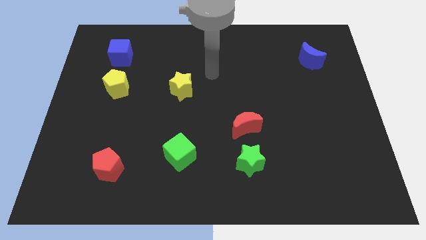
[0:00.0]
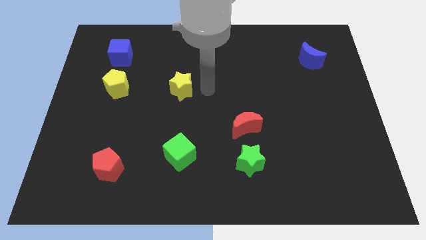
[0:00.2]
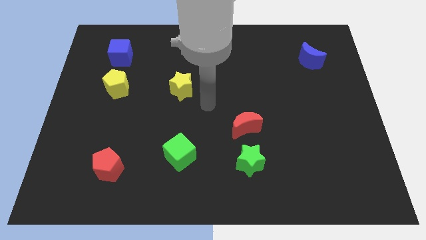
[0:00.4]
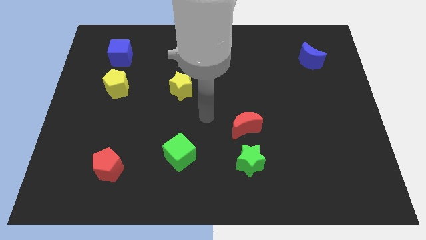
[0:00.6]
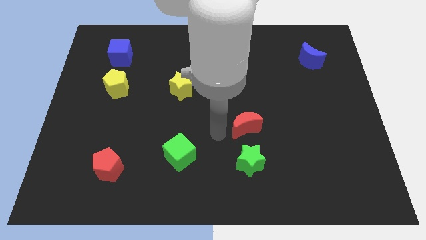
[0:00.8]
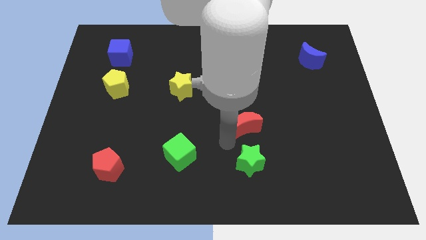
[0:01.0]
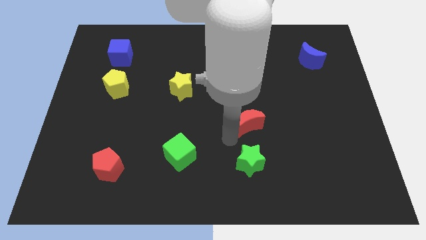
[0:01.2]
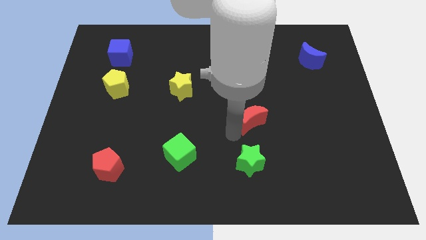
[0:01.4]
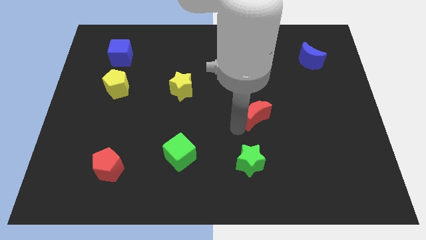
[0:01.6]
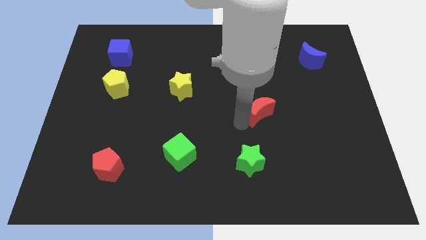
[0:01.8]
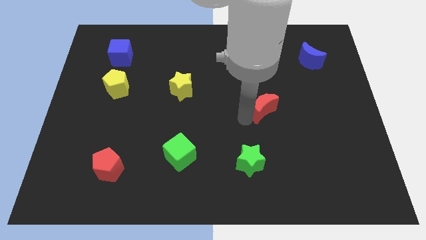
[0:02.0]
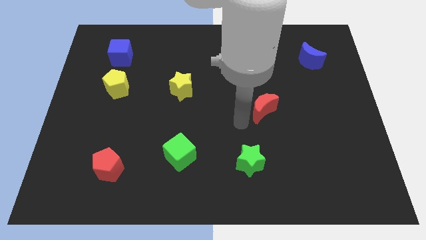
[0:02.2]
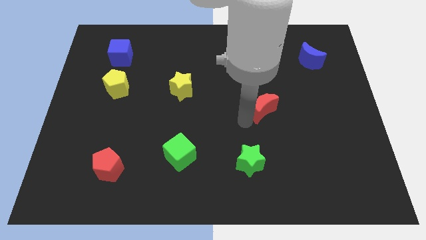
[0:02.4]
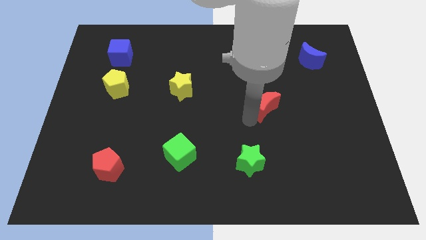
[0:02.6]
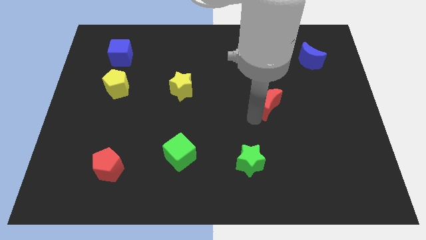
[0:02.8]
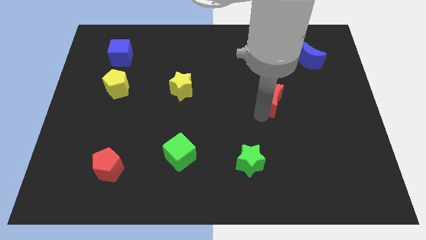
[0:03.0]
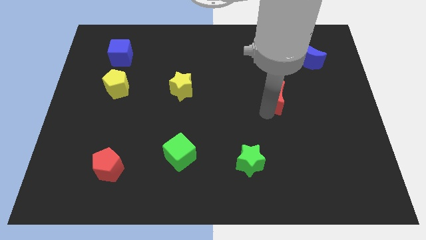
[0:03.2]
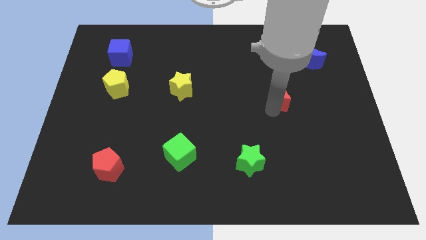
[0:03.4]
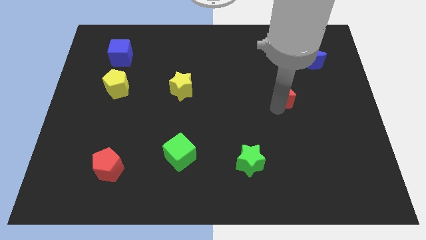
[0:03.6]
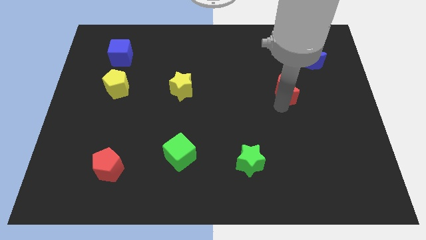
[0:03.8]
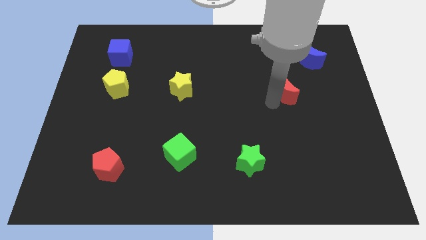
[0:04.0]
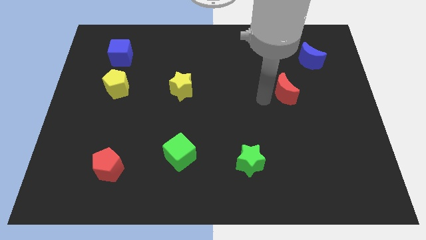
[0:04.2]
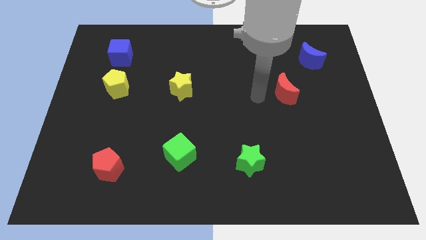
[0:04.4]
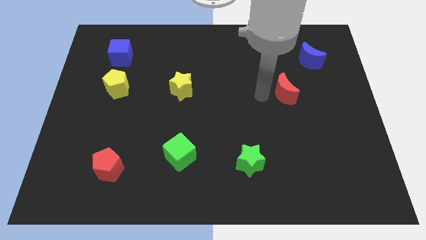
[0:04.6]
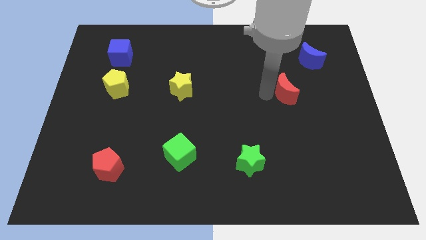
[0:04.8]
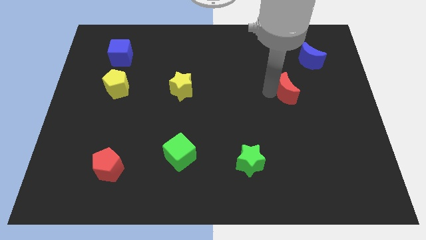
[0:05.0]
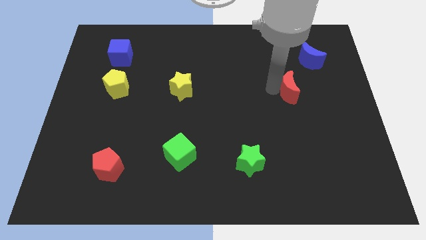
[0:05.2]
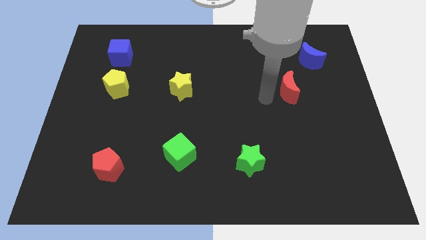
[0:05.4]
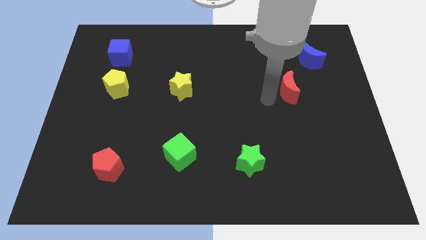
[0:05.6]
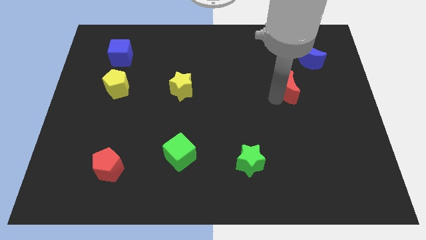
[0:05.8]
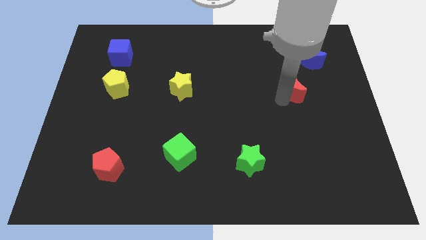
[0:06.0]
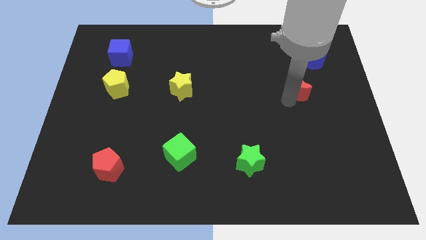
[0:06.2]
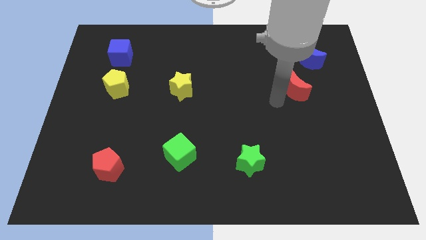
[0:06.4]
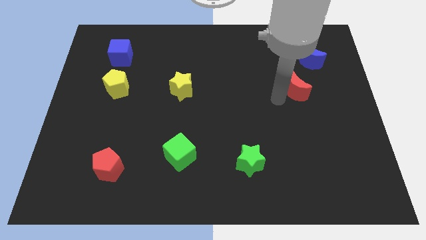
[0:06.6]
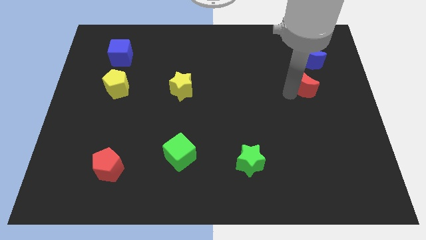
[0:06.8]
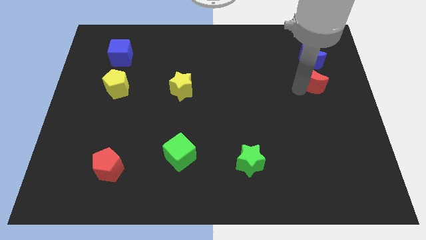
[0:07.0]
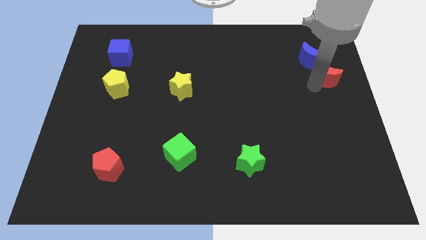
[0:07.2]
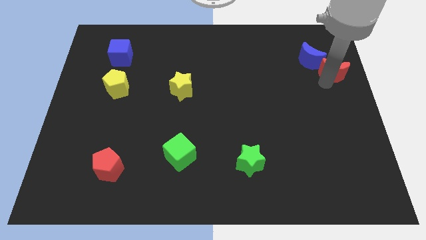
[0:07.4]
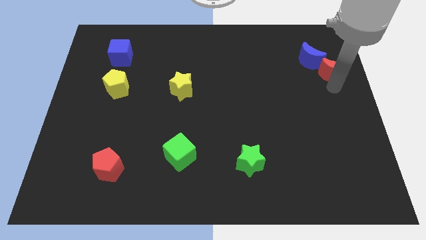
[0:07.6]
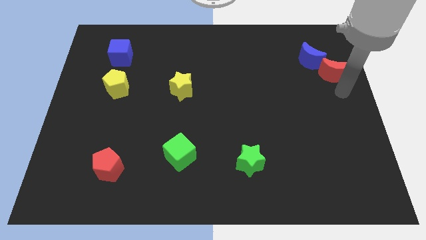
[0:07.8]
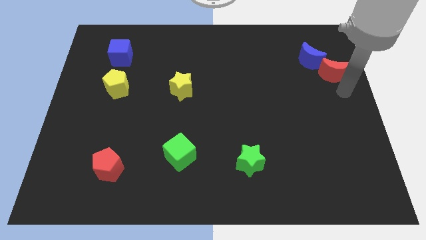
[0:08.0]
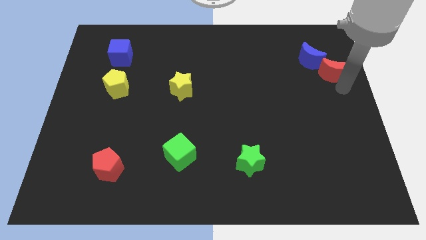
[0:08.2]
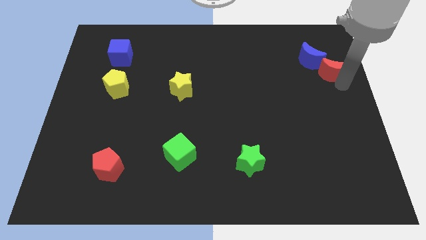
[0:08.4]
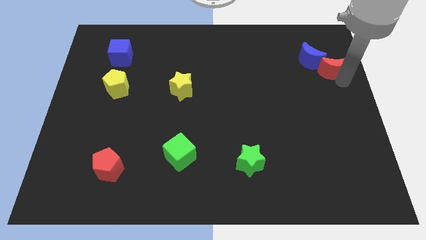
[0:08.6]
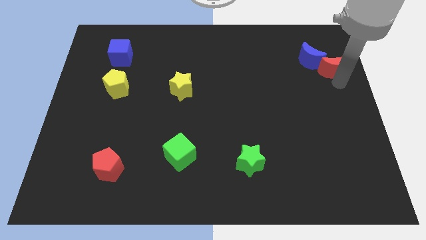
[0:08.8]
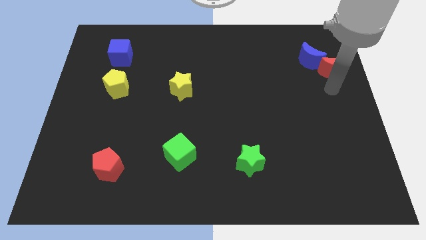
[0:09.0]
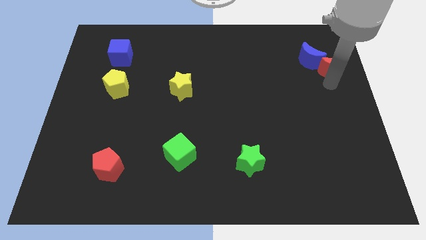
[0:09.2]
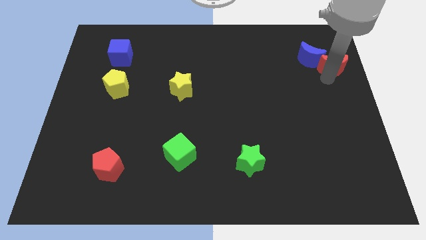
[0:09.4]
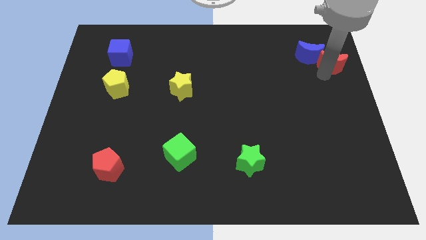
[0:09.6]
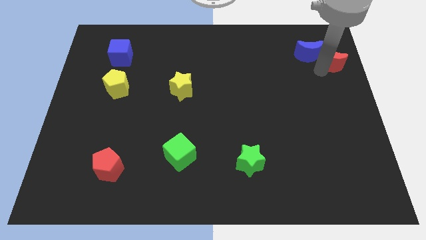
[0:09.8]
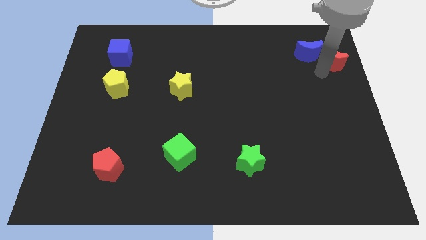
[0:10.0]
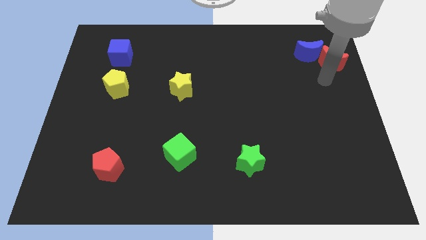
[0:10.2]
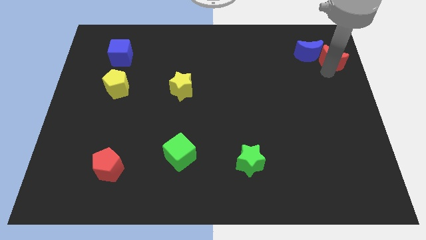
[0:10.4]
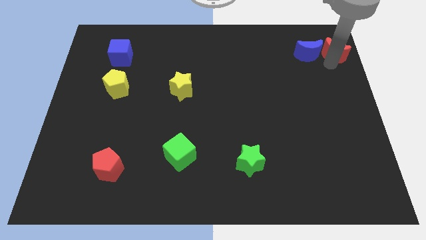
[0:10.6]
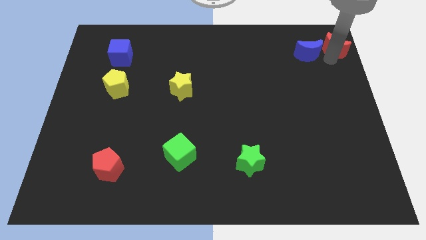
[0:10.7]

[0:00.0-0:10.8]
put the red moon to the top right of the board

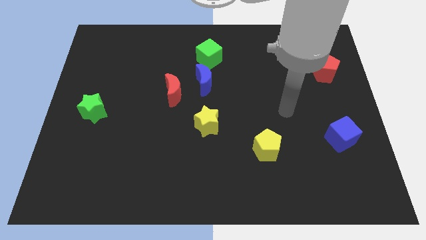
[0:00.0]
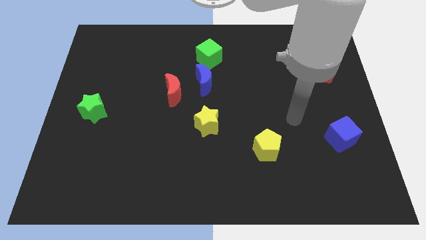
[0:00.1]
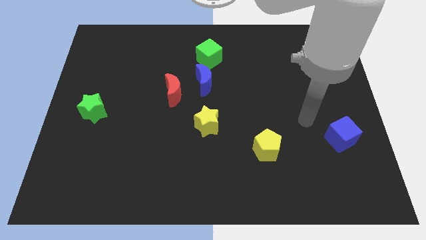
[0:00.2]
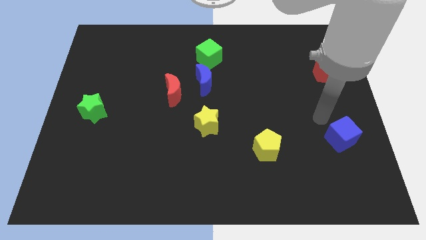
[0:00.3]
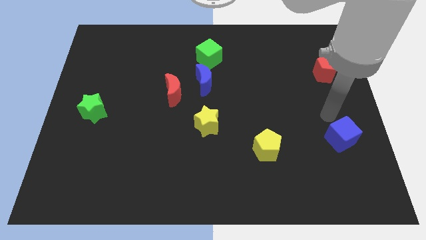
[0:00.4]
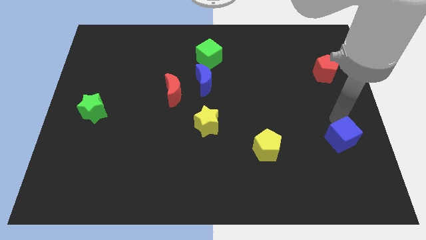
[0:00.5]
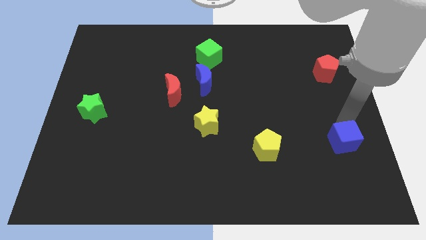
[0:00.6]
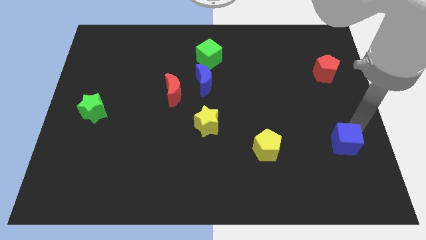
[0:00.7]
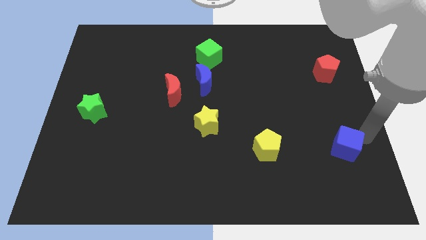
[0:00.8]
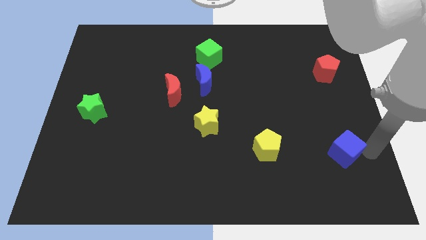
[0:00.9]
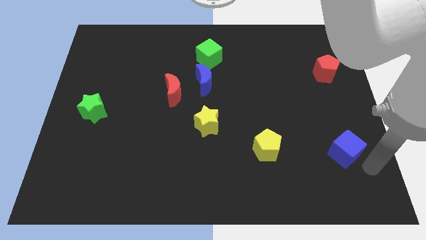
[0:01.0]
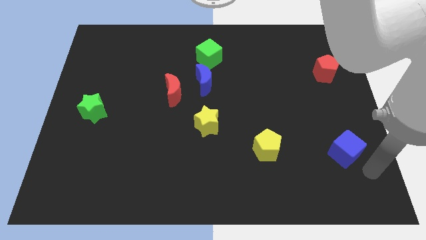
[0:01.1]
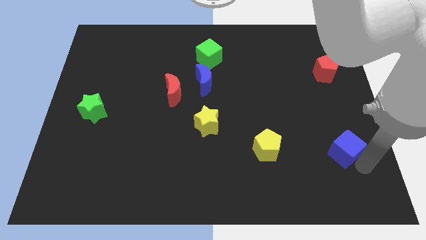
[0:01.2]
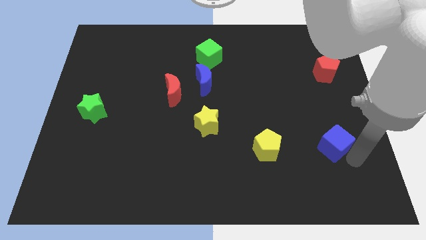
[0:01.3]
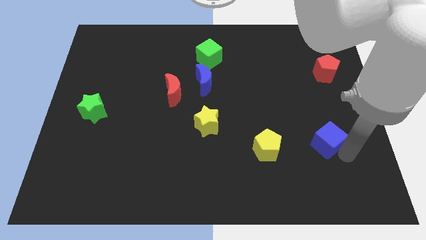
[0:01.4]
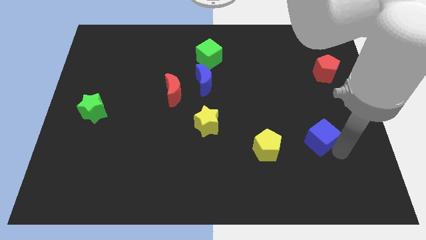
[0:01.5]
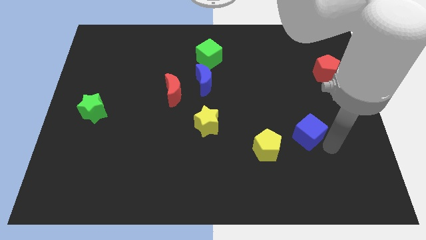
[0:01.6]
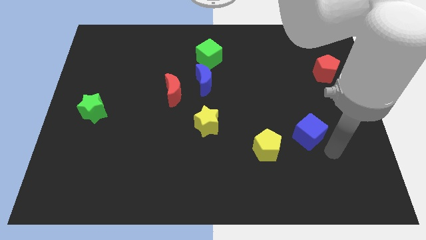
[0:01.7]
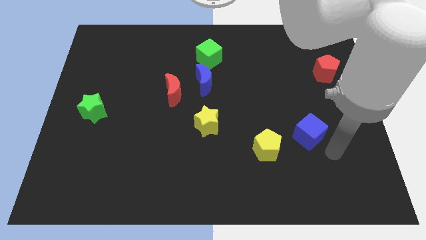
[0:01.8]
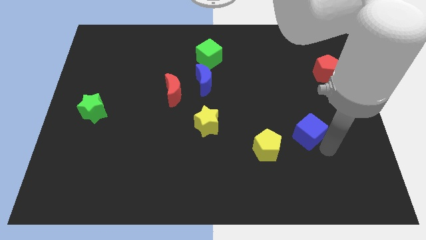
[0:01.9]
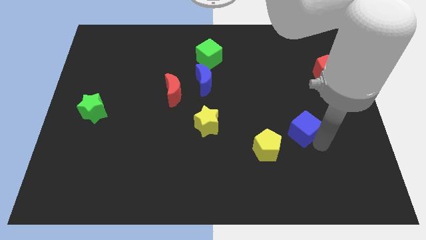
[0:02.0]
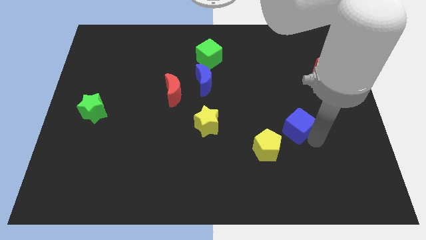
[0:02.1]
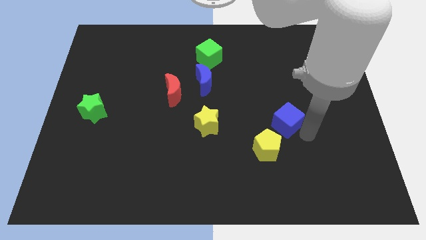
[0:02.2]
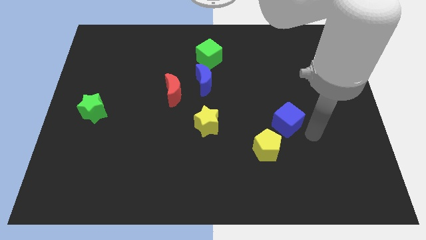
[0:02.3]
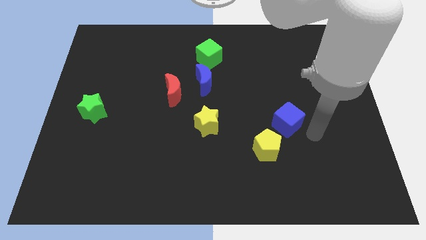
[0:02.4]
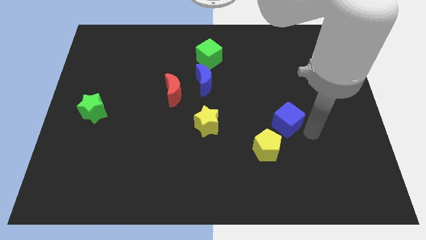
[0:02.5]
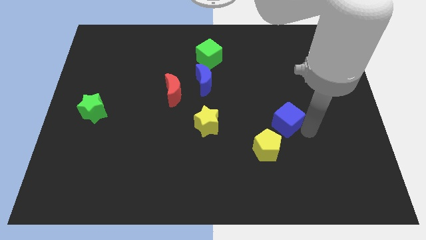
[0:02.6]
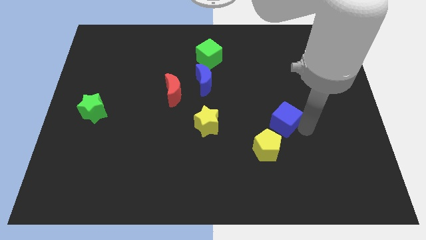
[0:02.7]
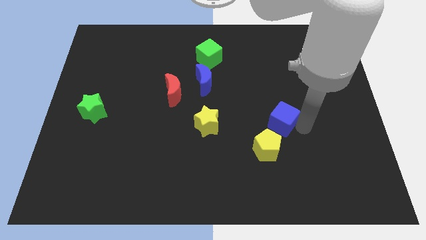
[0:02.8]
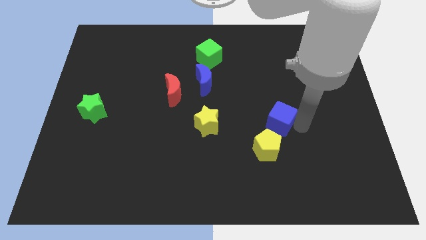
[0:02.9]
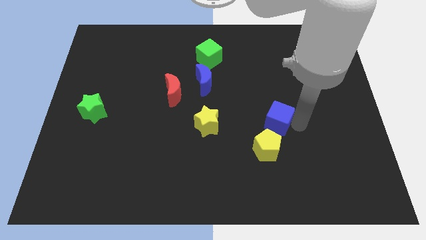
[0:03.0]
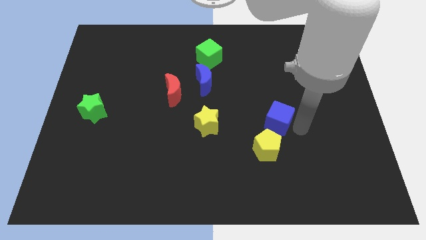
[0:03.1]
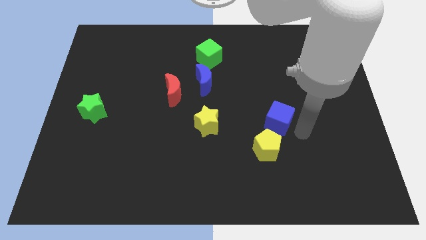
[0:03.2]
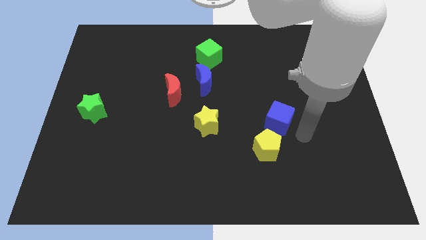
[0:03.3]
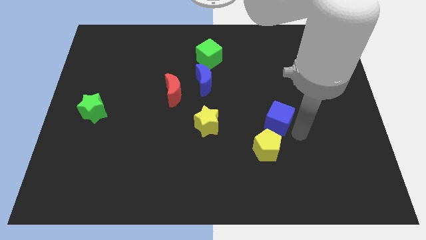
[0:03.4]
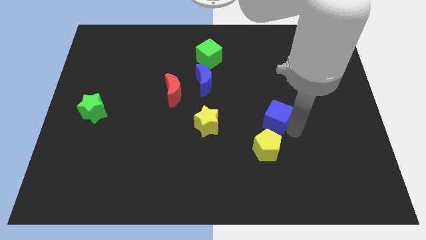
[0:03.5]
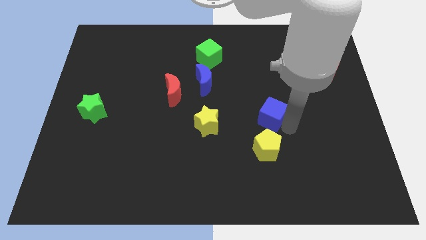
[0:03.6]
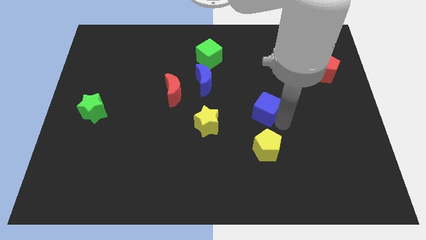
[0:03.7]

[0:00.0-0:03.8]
push the blue cube to the center of the board
